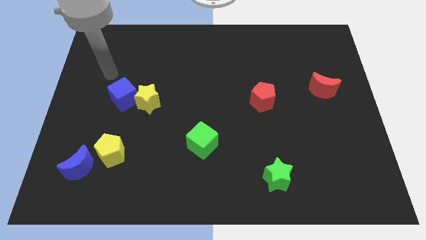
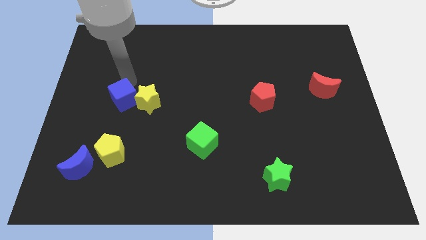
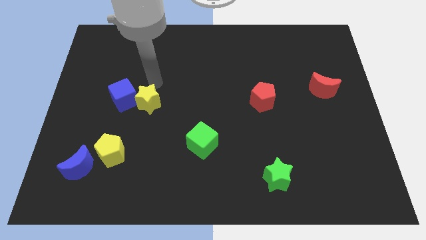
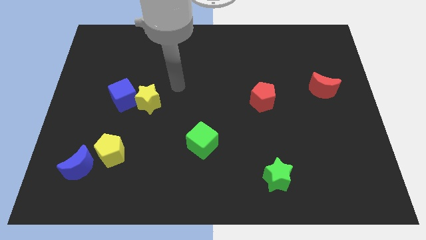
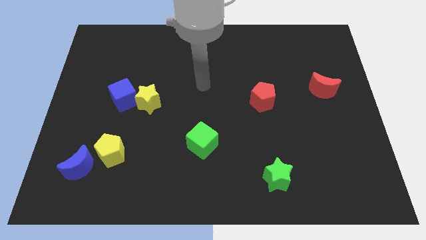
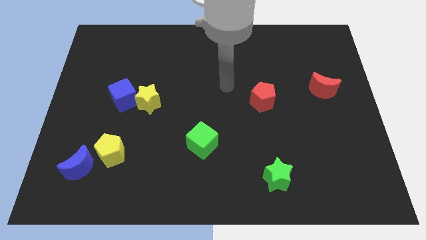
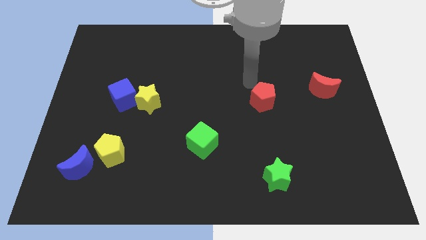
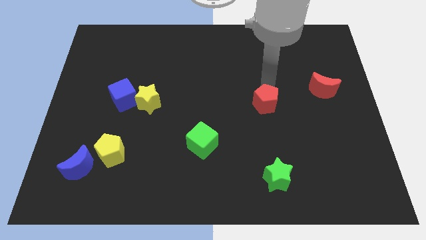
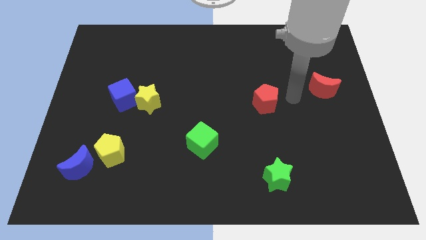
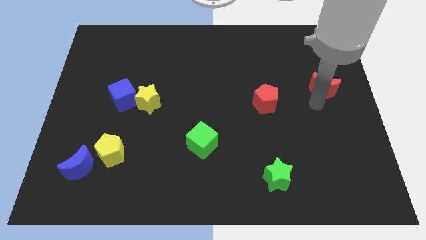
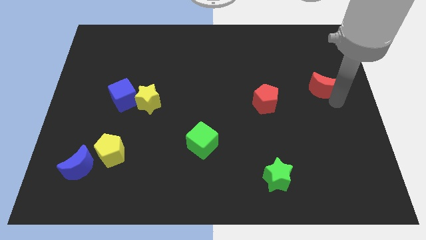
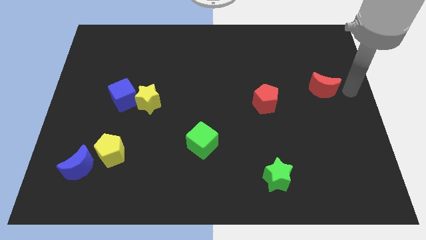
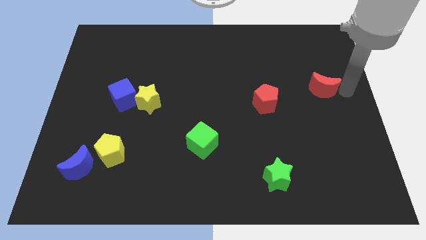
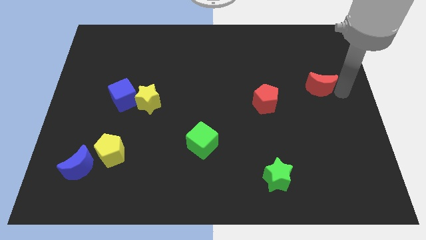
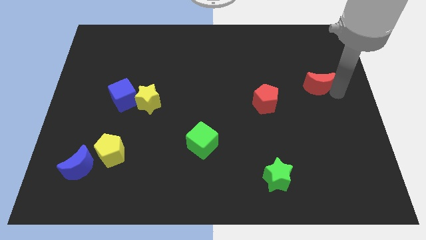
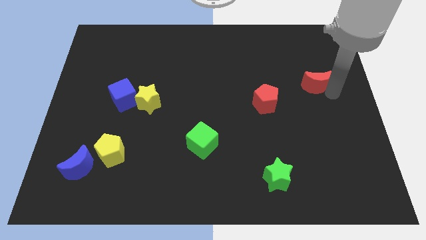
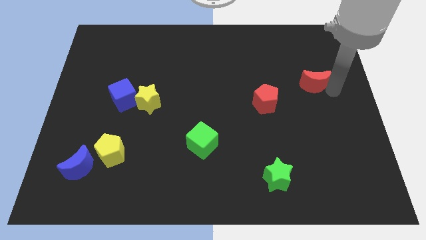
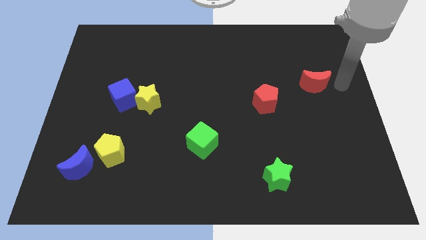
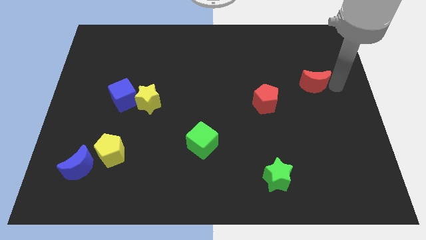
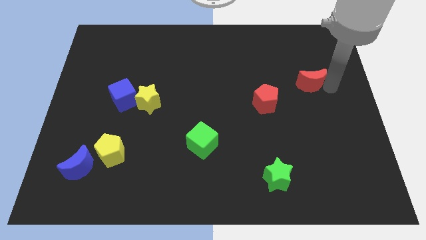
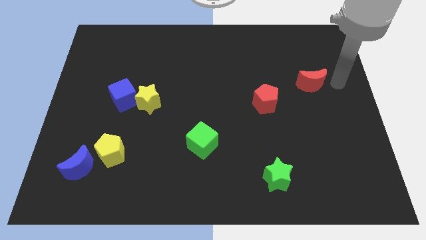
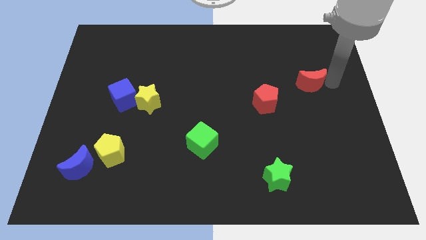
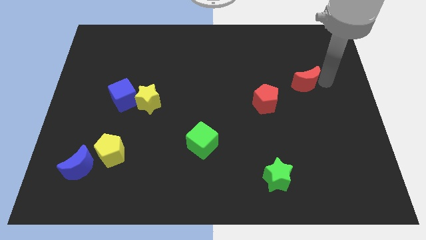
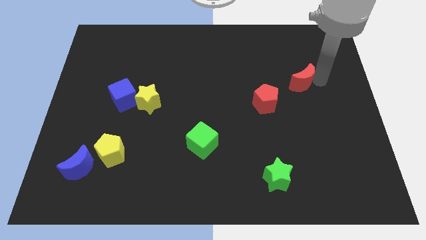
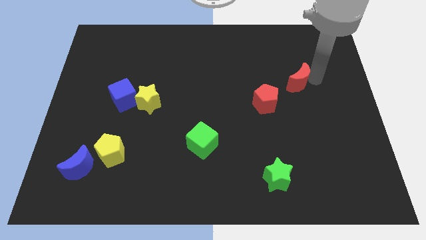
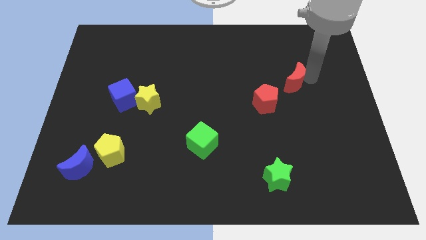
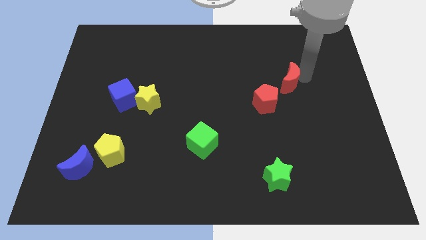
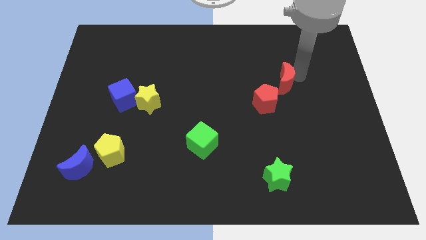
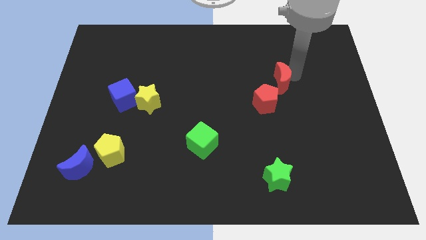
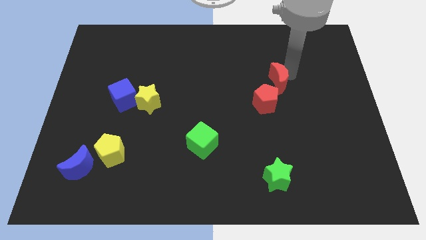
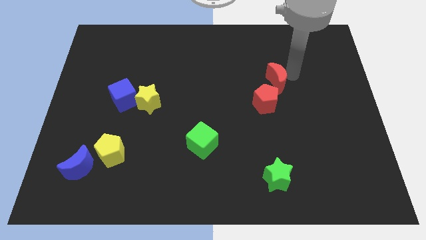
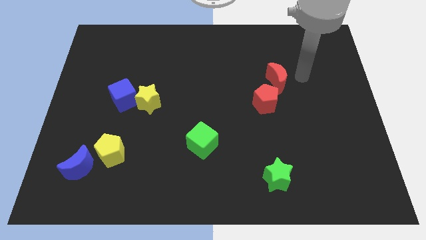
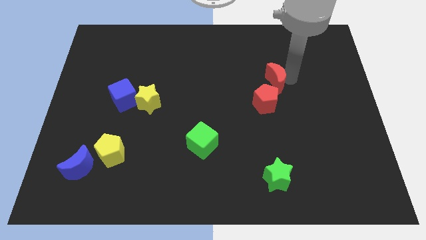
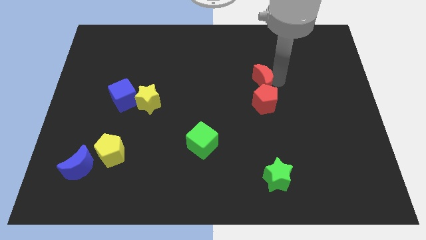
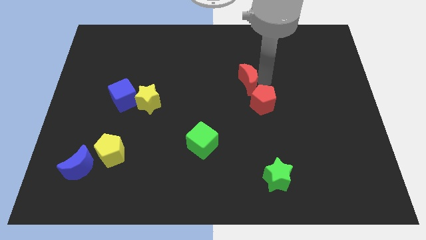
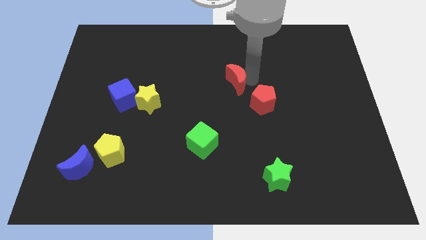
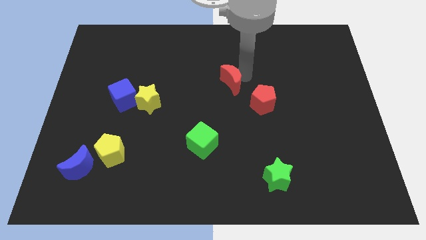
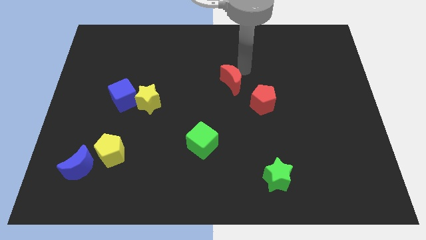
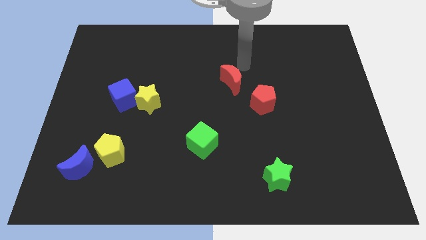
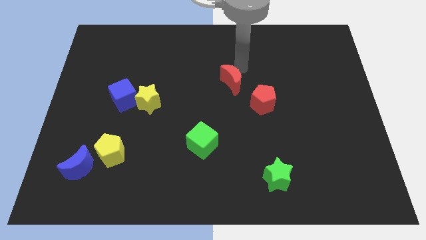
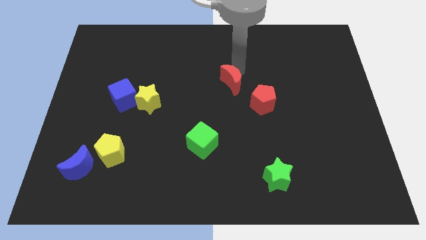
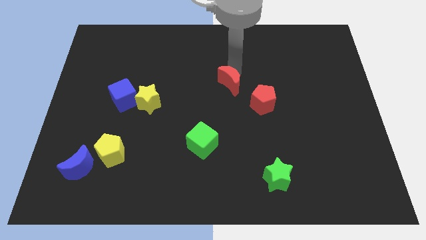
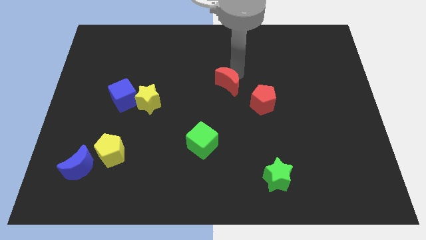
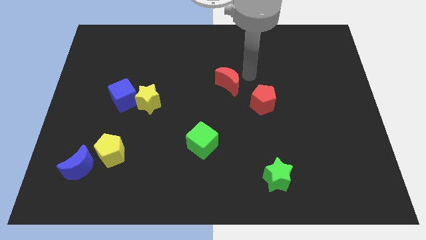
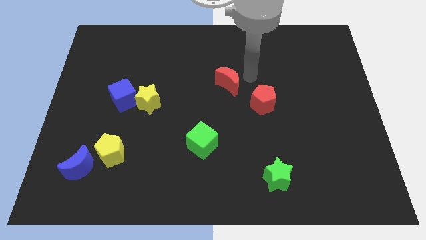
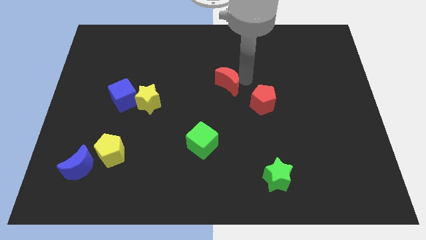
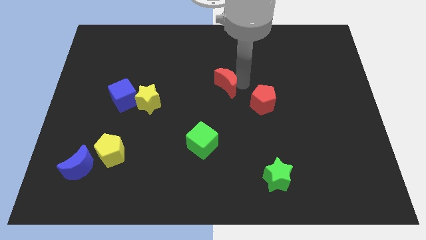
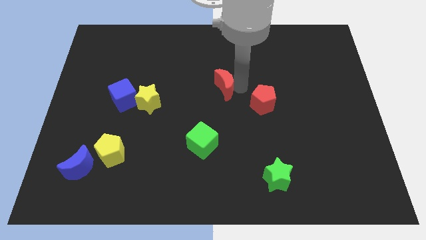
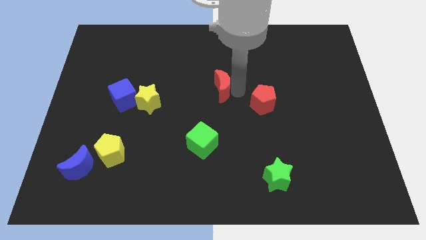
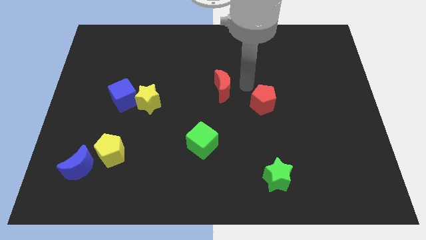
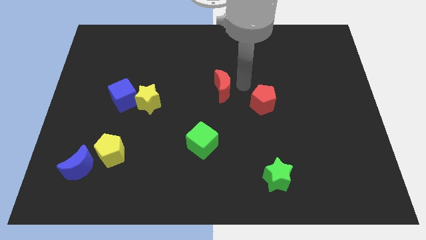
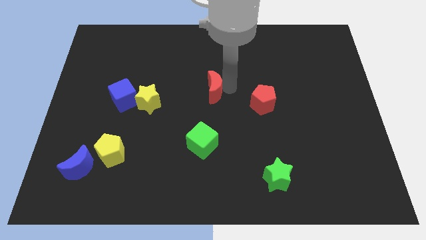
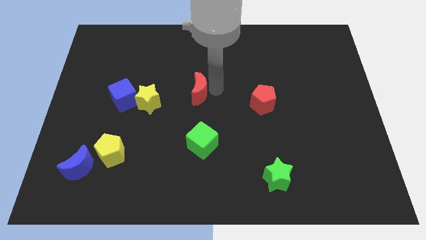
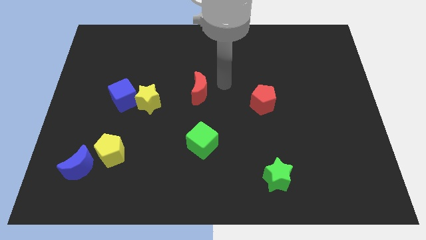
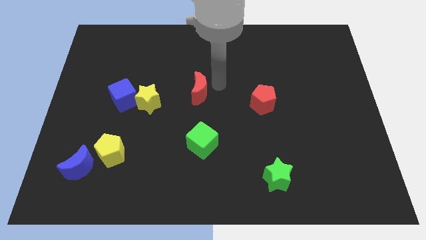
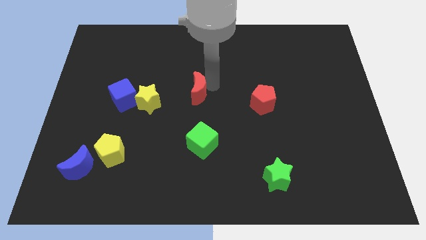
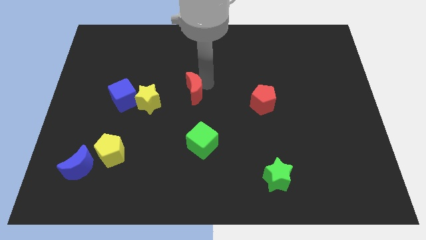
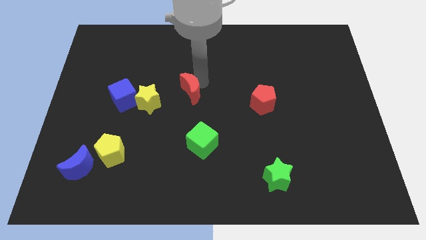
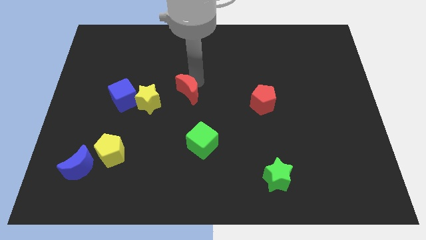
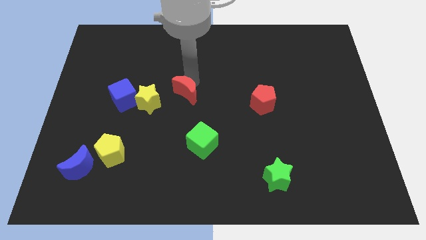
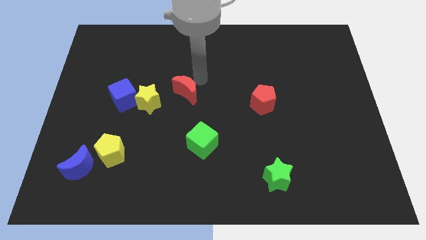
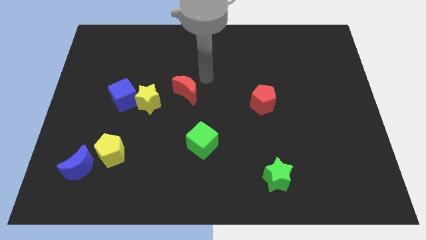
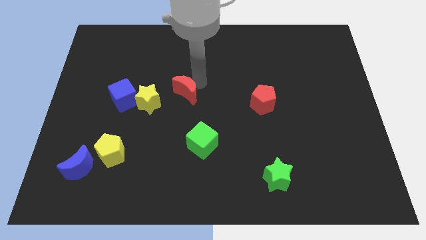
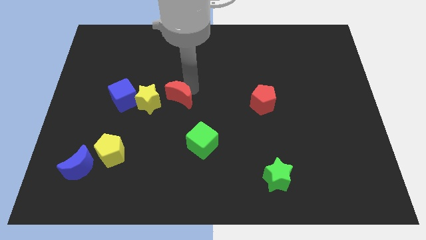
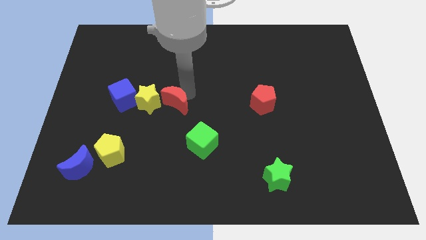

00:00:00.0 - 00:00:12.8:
slide the red moon towards the yellow star
